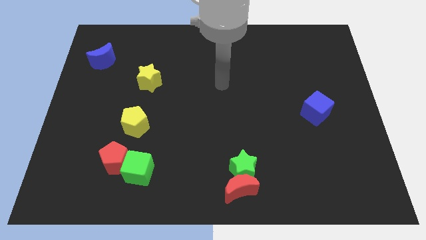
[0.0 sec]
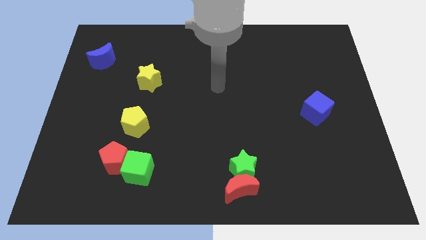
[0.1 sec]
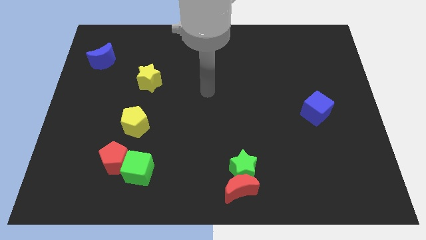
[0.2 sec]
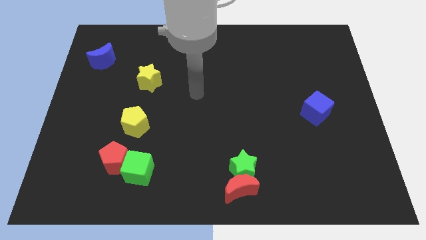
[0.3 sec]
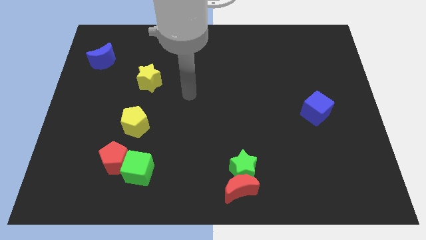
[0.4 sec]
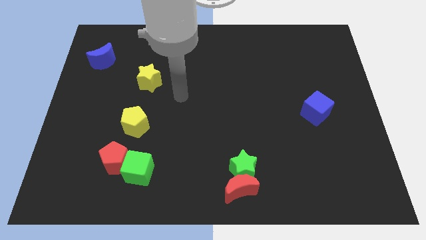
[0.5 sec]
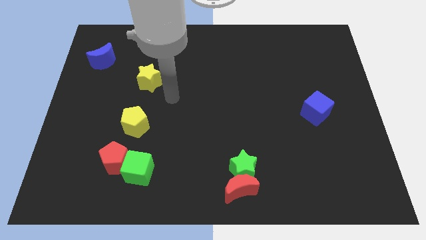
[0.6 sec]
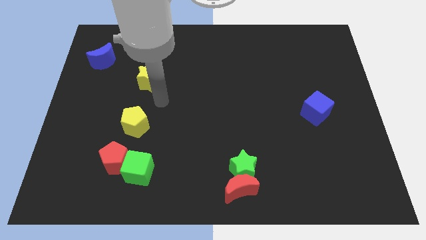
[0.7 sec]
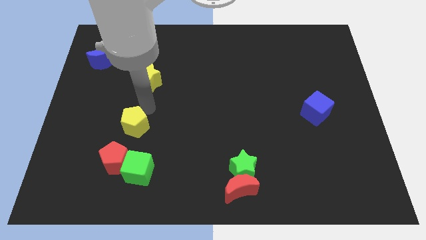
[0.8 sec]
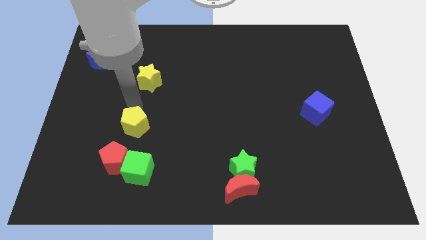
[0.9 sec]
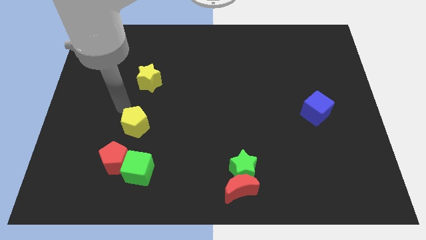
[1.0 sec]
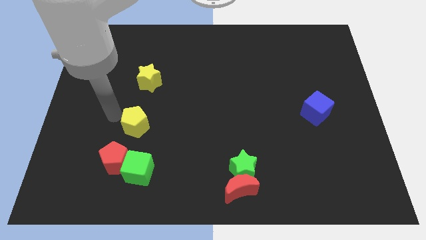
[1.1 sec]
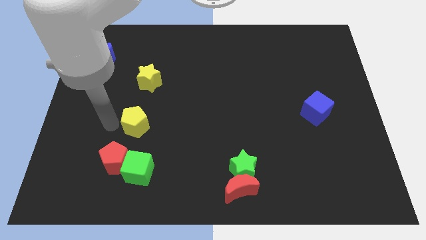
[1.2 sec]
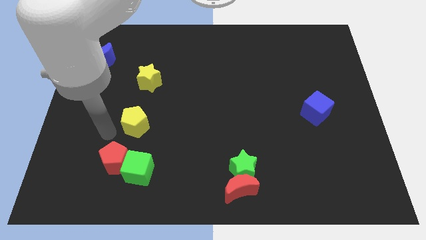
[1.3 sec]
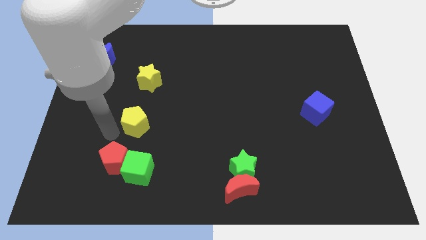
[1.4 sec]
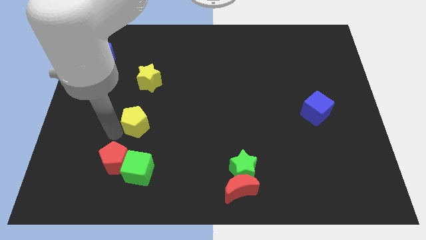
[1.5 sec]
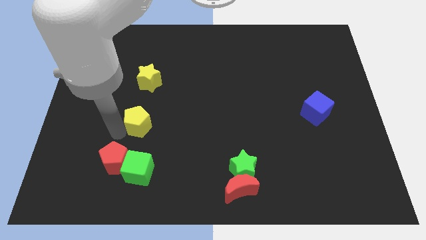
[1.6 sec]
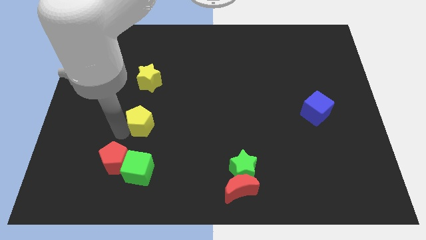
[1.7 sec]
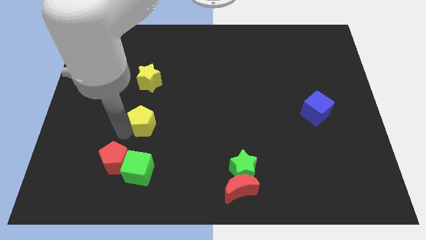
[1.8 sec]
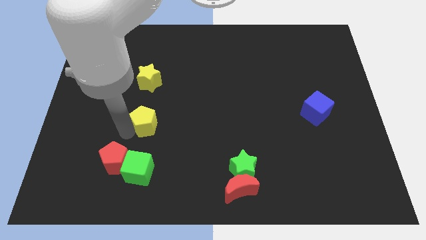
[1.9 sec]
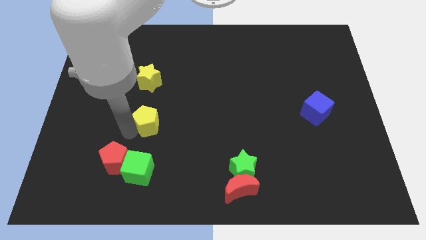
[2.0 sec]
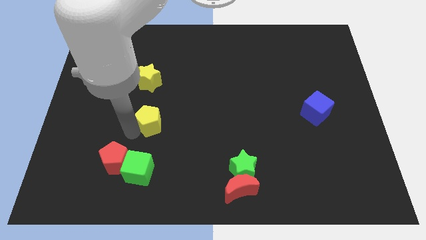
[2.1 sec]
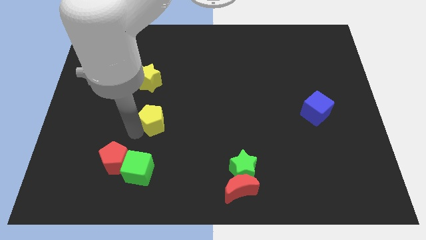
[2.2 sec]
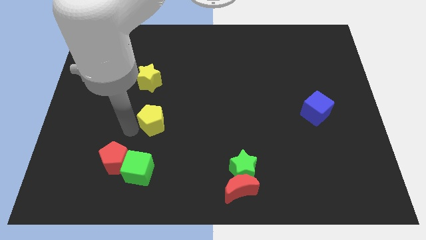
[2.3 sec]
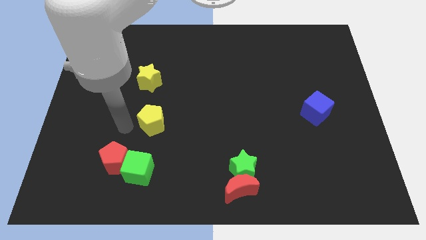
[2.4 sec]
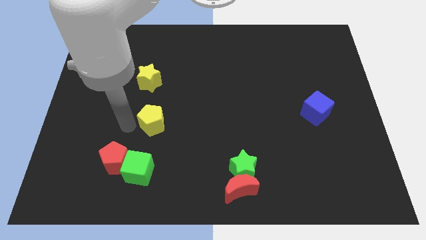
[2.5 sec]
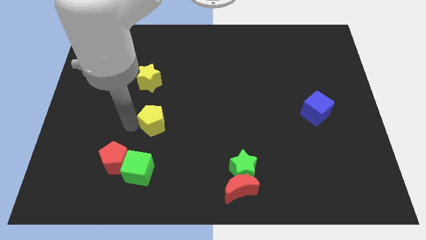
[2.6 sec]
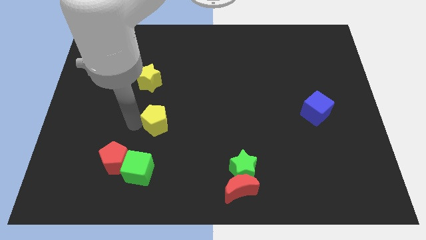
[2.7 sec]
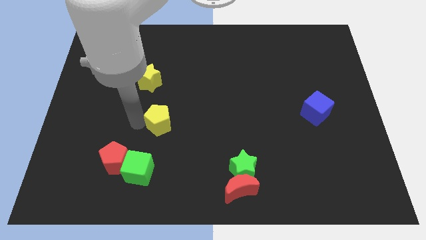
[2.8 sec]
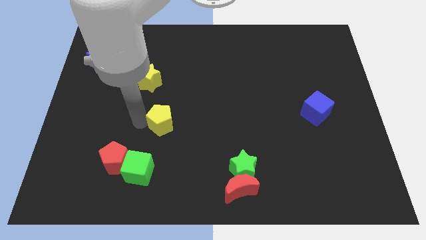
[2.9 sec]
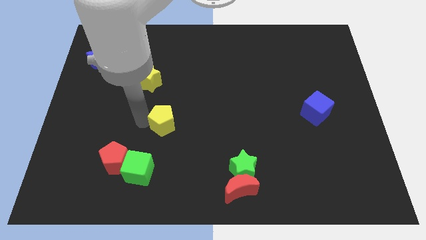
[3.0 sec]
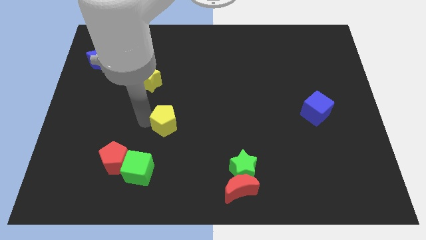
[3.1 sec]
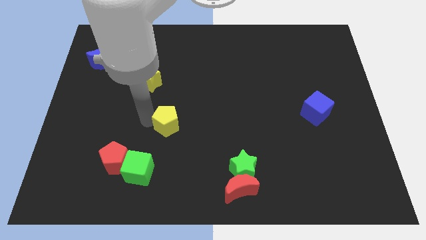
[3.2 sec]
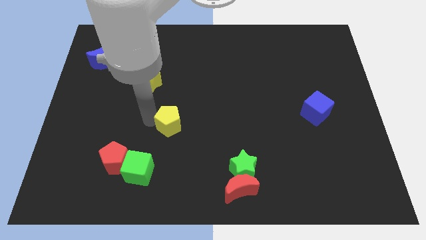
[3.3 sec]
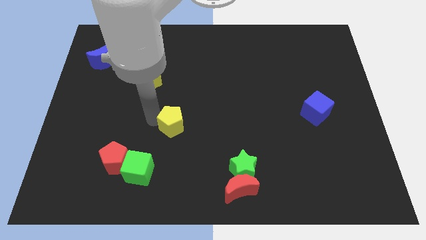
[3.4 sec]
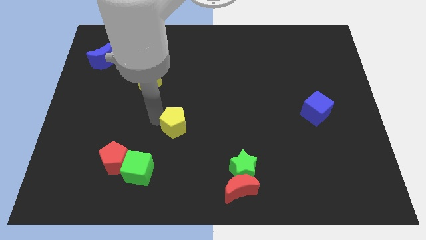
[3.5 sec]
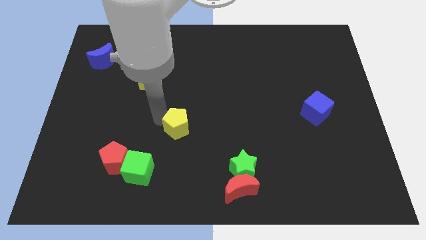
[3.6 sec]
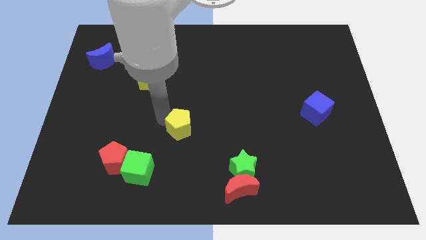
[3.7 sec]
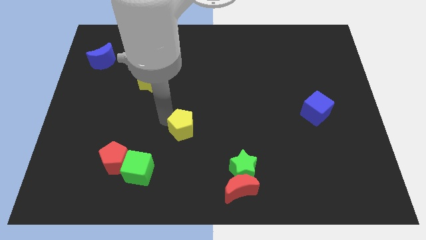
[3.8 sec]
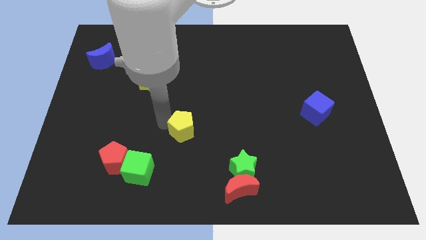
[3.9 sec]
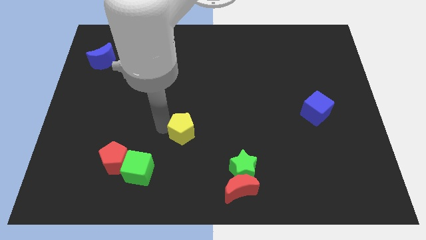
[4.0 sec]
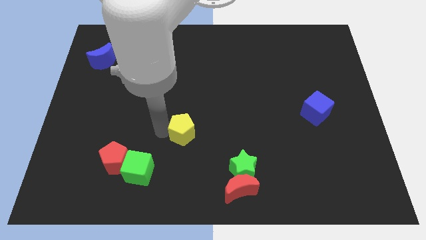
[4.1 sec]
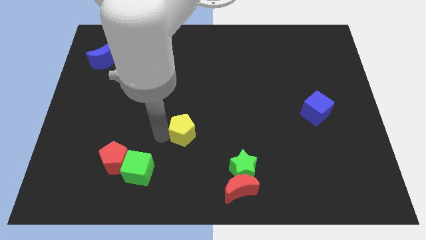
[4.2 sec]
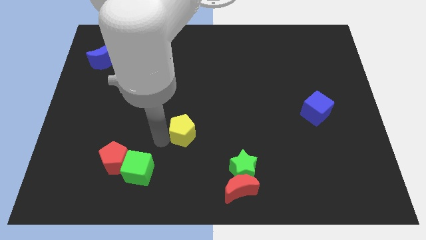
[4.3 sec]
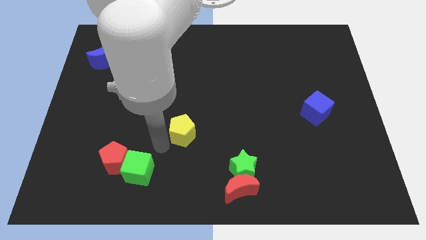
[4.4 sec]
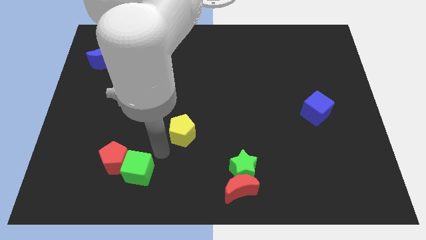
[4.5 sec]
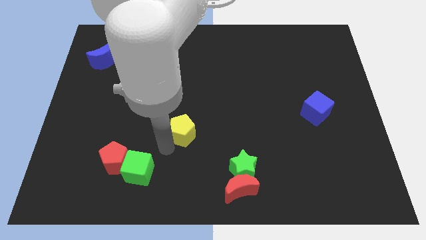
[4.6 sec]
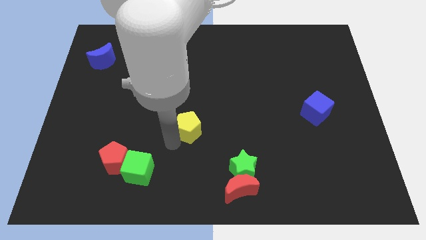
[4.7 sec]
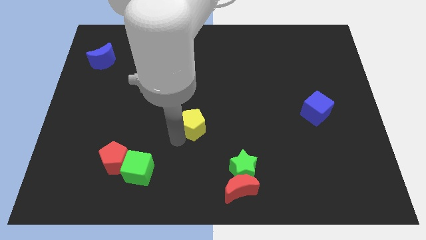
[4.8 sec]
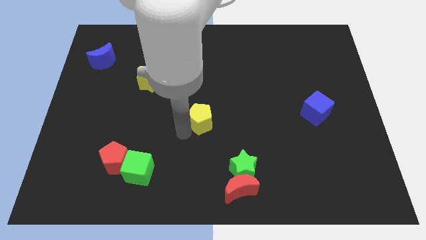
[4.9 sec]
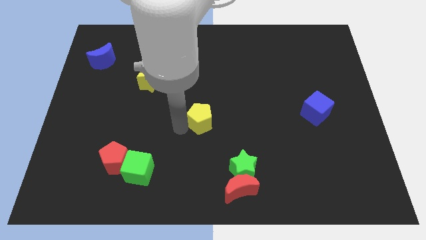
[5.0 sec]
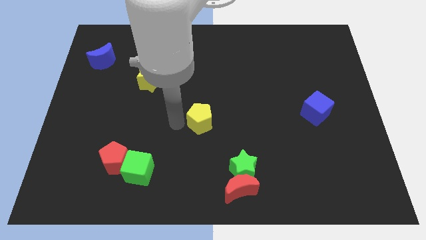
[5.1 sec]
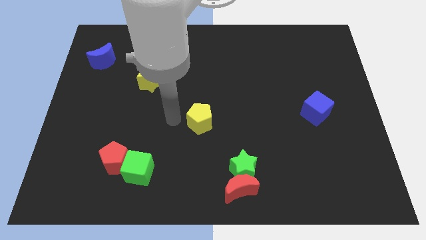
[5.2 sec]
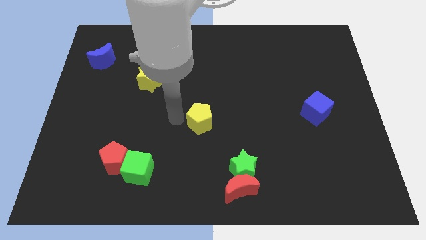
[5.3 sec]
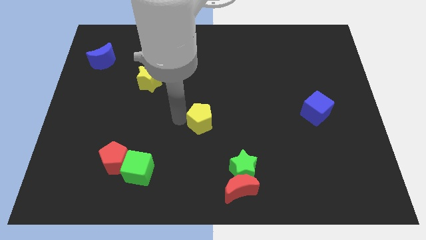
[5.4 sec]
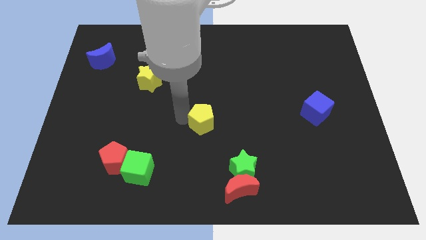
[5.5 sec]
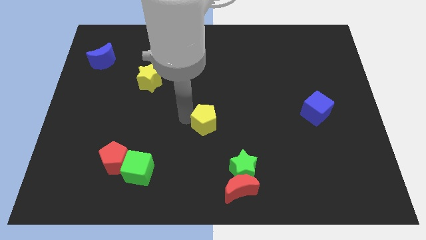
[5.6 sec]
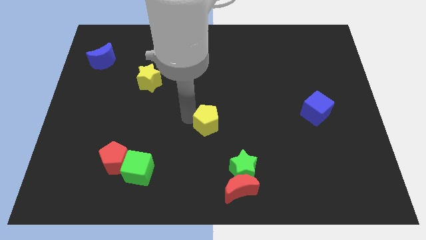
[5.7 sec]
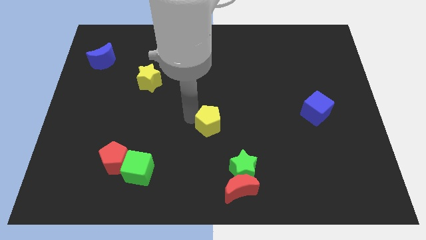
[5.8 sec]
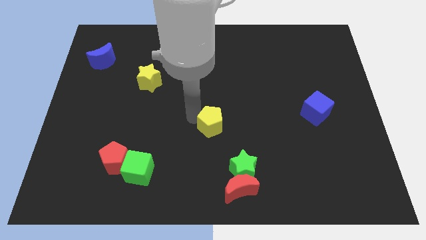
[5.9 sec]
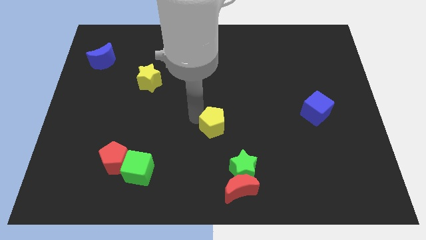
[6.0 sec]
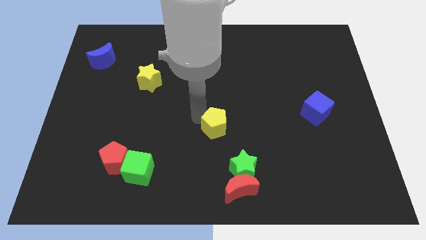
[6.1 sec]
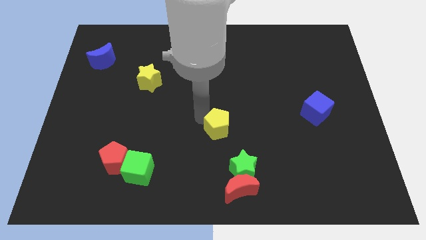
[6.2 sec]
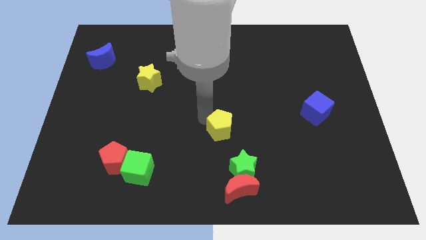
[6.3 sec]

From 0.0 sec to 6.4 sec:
slide the yellow pentagon above the green star
